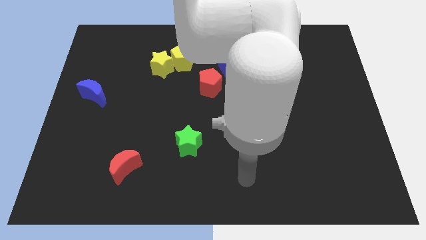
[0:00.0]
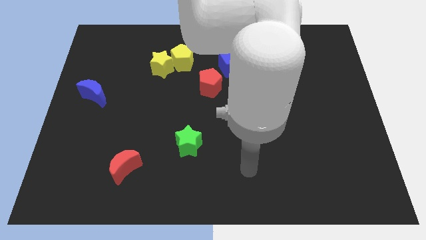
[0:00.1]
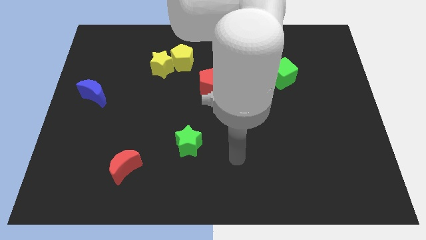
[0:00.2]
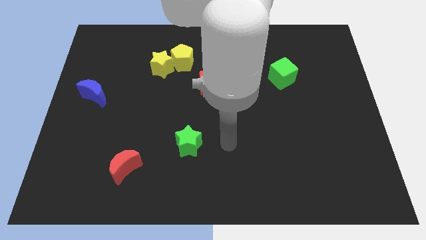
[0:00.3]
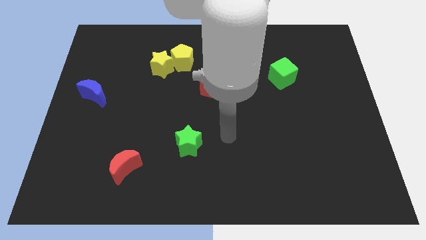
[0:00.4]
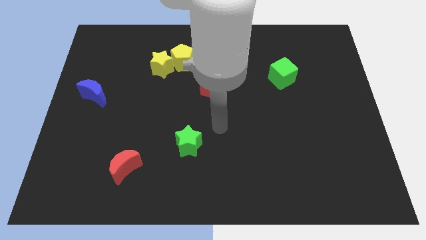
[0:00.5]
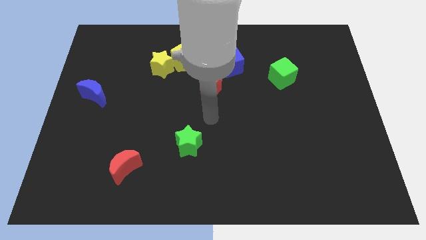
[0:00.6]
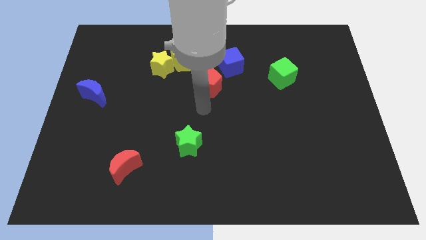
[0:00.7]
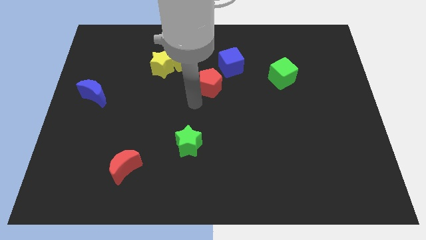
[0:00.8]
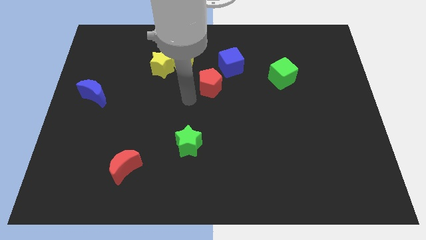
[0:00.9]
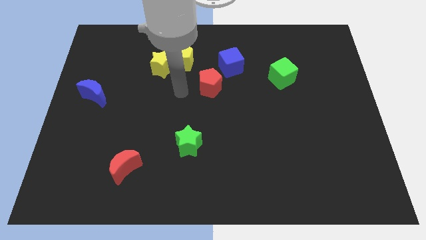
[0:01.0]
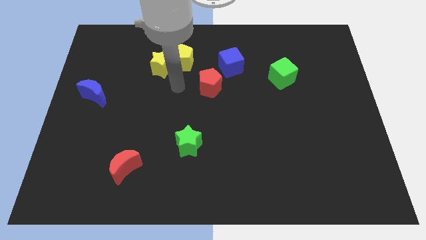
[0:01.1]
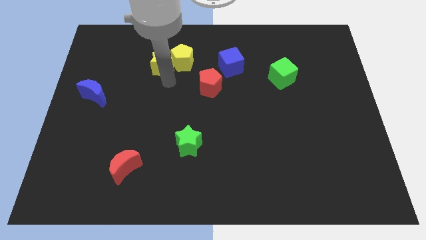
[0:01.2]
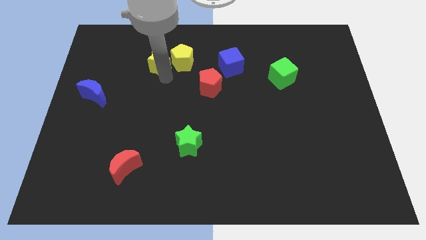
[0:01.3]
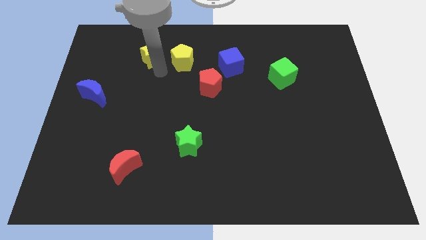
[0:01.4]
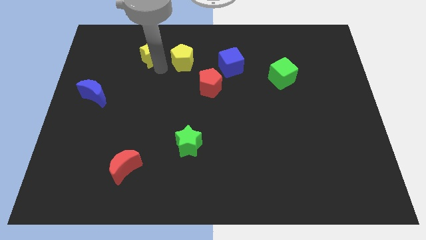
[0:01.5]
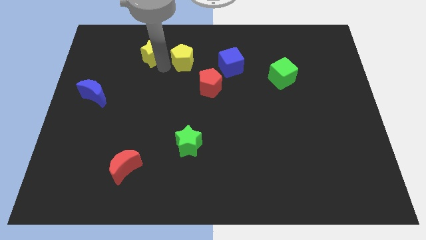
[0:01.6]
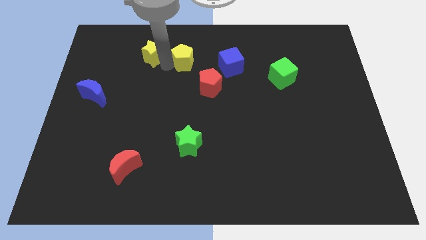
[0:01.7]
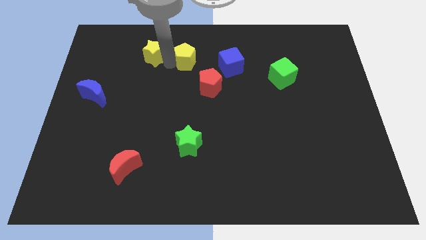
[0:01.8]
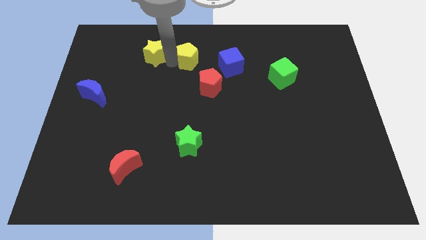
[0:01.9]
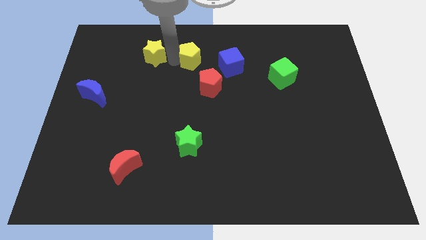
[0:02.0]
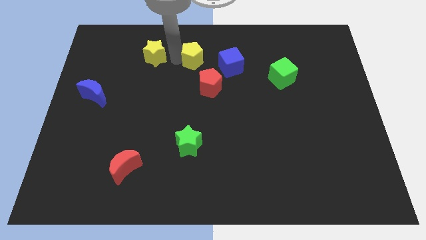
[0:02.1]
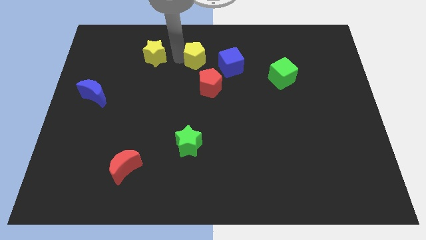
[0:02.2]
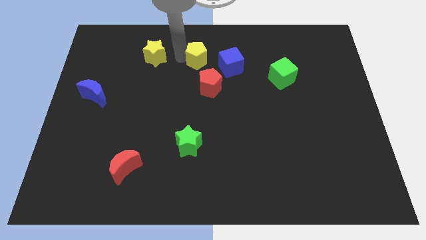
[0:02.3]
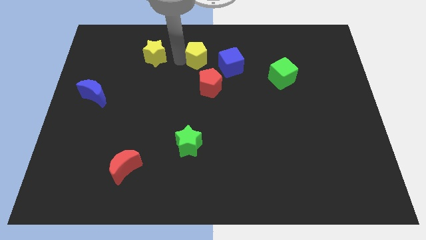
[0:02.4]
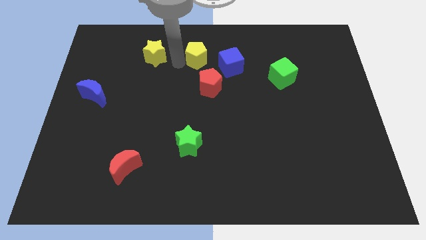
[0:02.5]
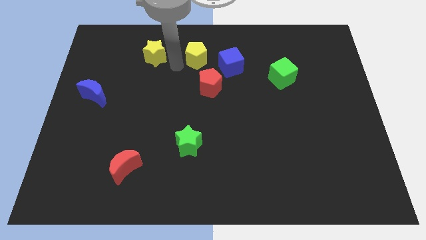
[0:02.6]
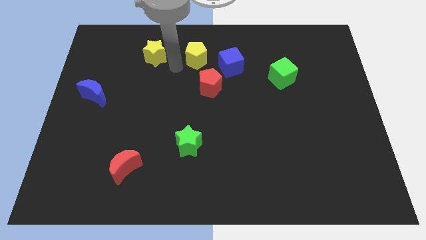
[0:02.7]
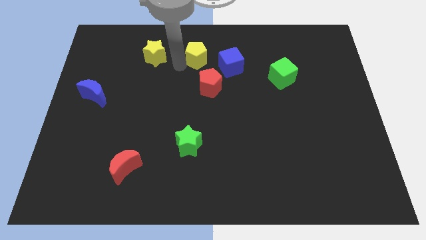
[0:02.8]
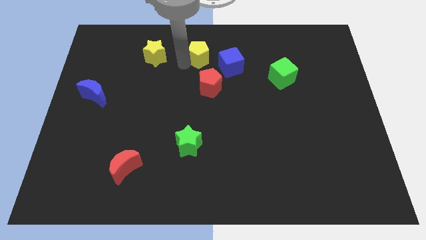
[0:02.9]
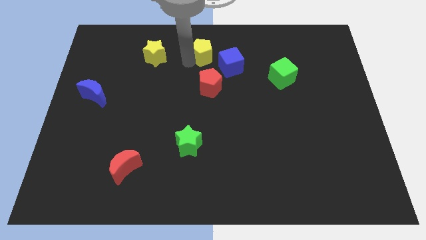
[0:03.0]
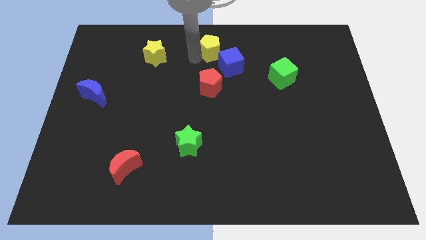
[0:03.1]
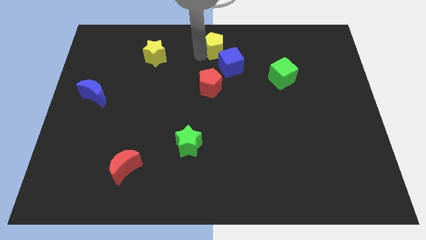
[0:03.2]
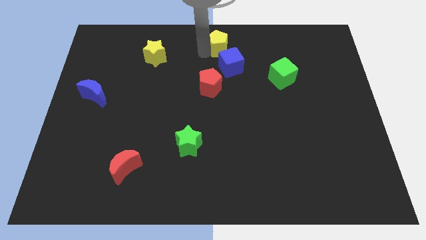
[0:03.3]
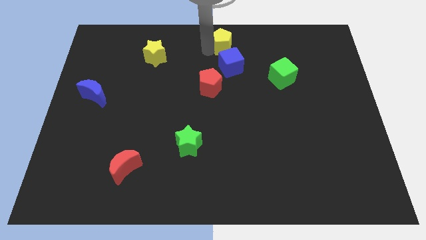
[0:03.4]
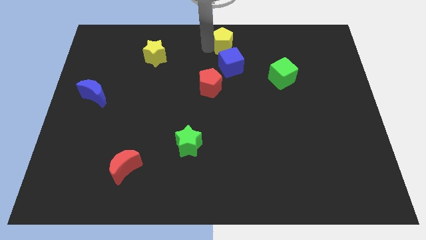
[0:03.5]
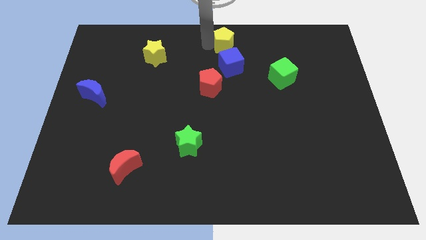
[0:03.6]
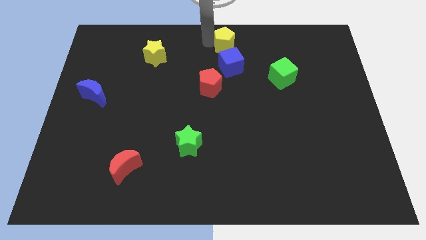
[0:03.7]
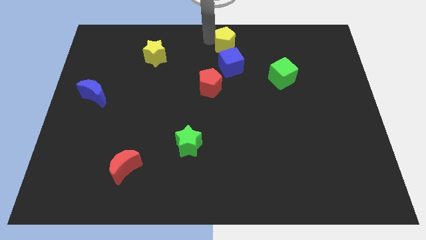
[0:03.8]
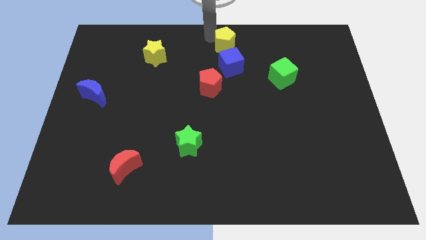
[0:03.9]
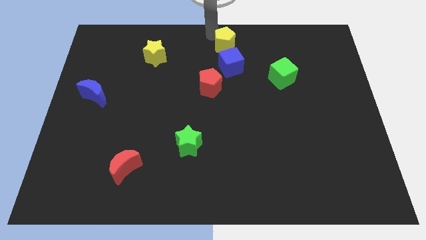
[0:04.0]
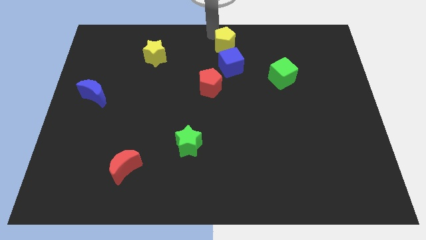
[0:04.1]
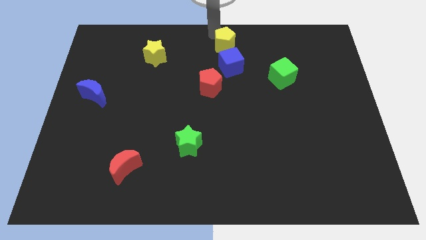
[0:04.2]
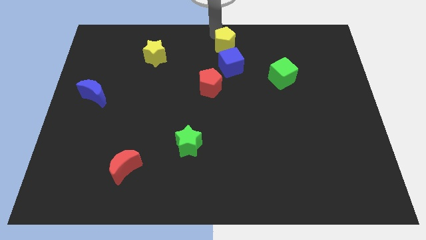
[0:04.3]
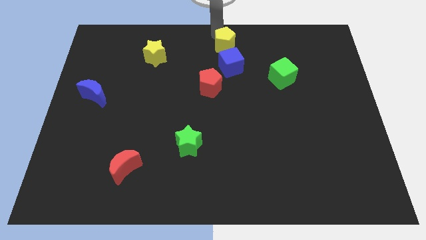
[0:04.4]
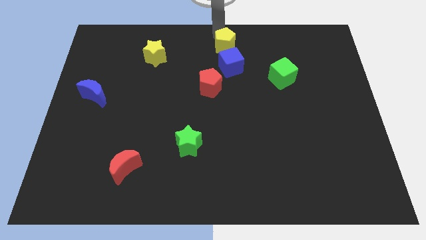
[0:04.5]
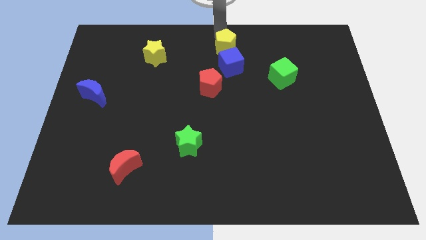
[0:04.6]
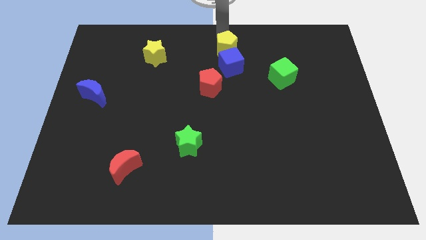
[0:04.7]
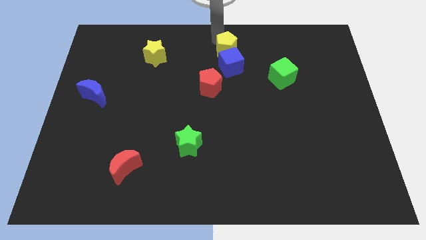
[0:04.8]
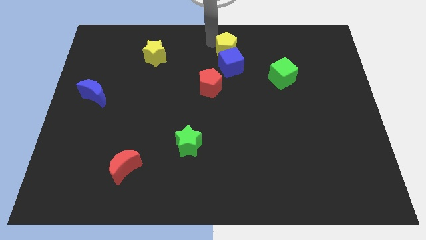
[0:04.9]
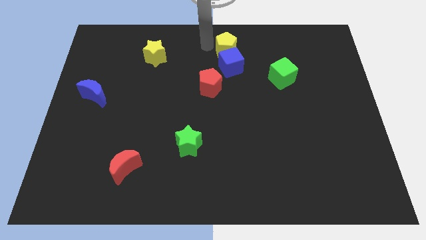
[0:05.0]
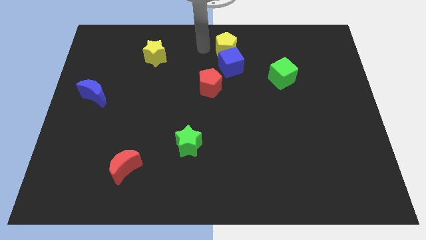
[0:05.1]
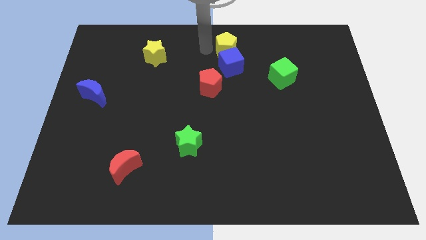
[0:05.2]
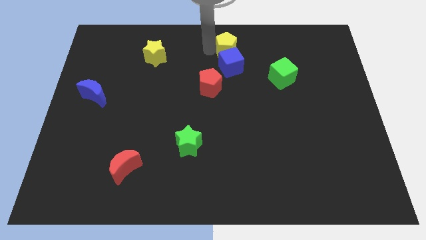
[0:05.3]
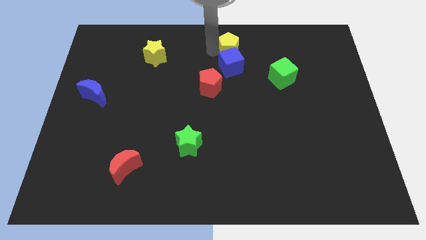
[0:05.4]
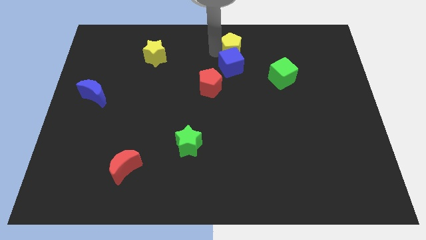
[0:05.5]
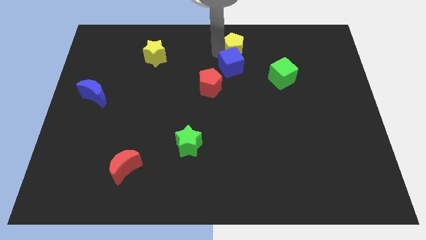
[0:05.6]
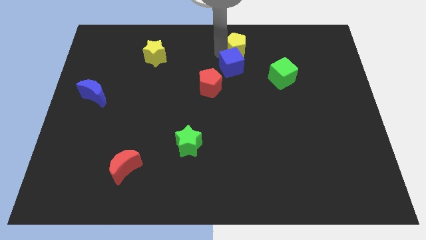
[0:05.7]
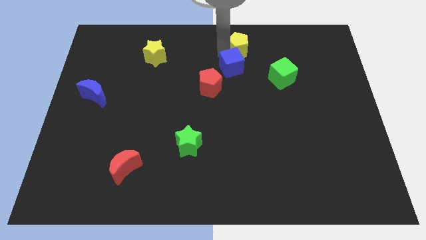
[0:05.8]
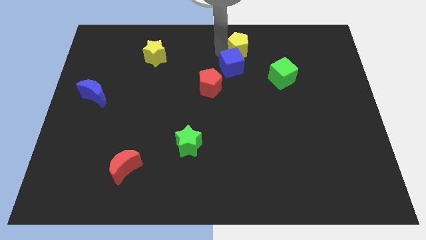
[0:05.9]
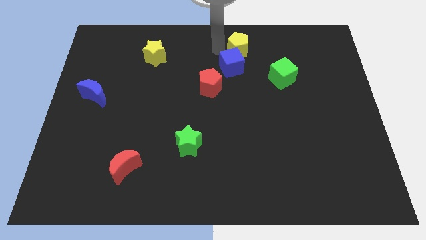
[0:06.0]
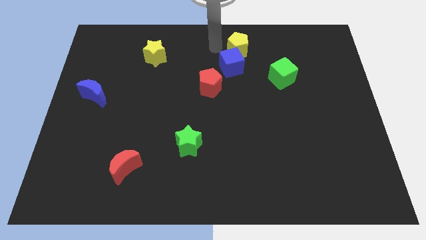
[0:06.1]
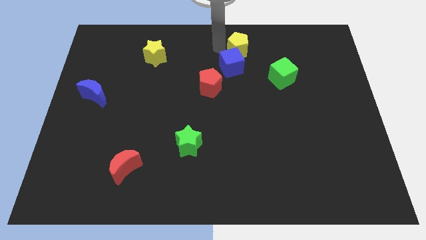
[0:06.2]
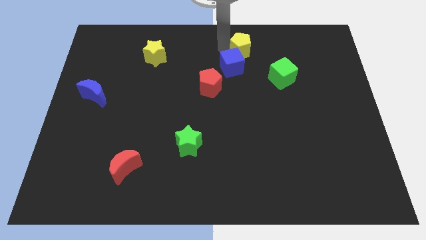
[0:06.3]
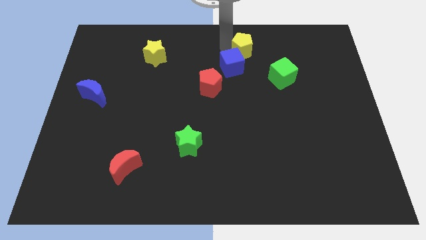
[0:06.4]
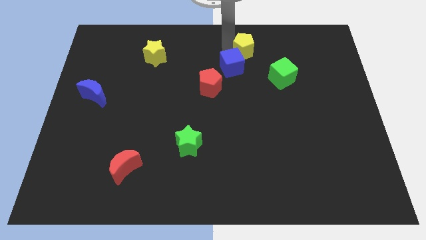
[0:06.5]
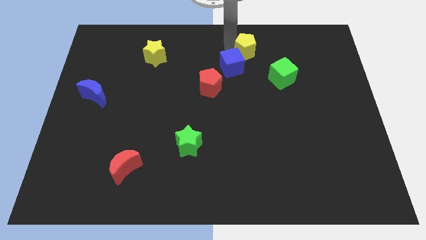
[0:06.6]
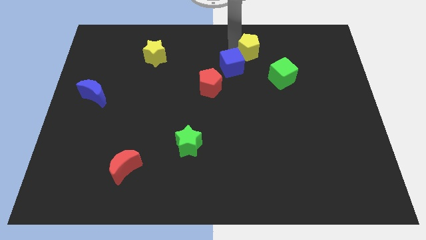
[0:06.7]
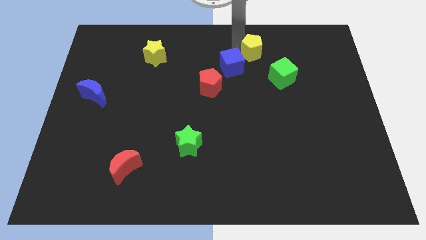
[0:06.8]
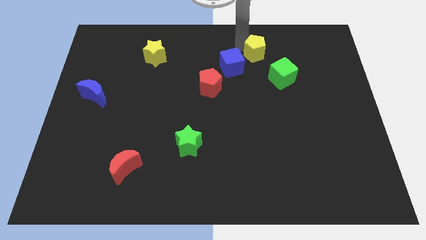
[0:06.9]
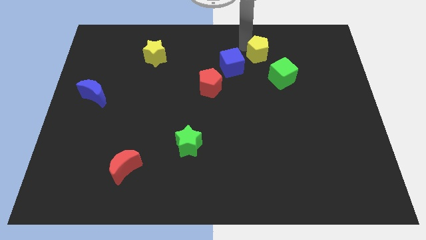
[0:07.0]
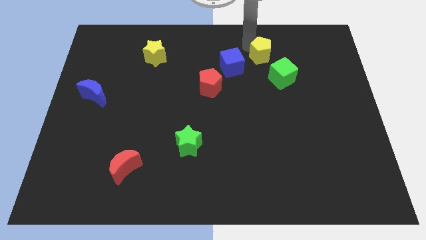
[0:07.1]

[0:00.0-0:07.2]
slide the yellow pentagon right

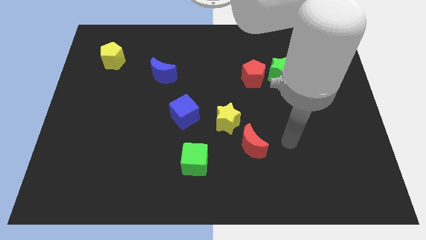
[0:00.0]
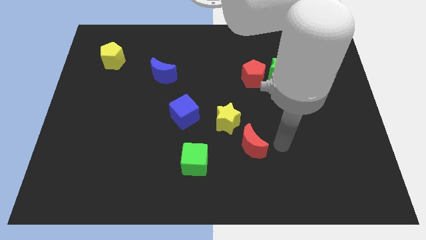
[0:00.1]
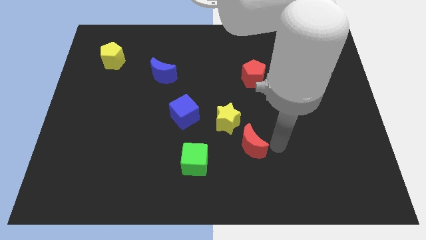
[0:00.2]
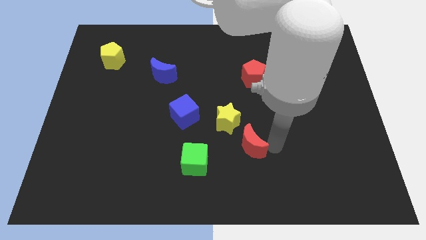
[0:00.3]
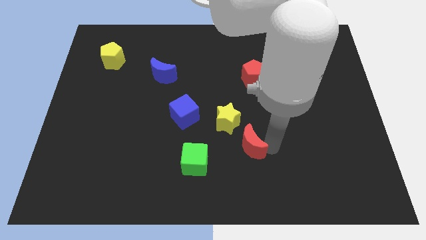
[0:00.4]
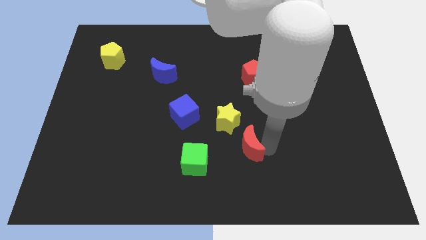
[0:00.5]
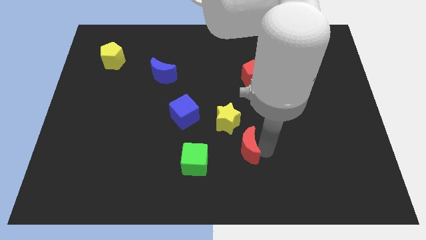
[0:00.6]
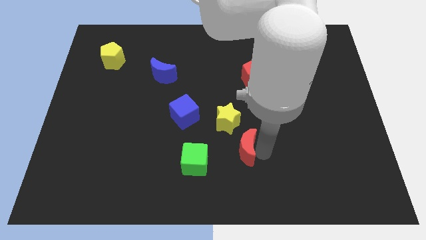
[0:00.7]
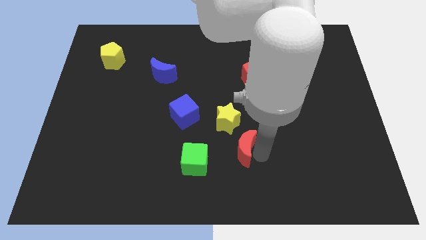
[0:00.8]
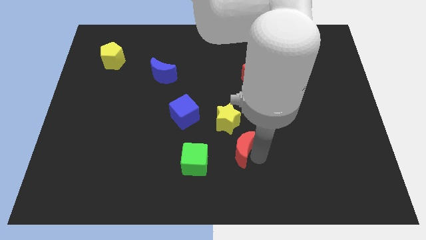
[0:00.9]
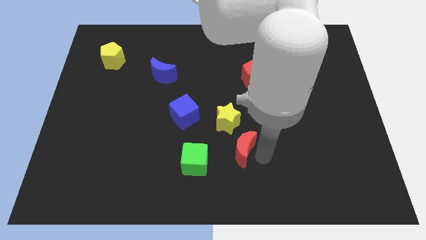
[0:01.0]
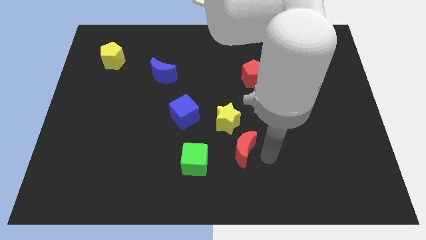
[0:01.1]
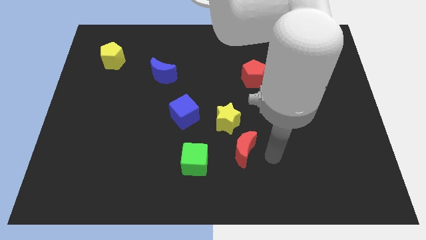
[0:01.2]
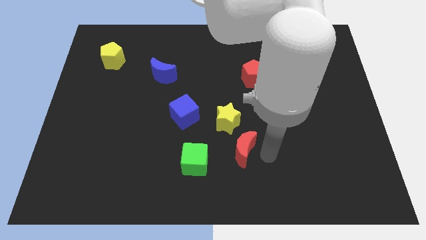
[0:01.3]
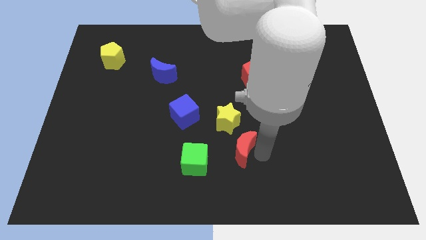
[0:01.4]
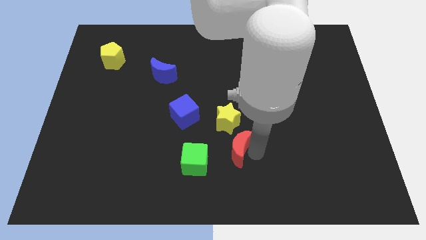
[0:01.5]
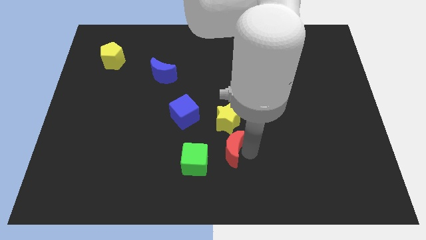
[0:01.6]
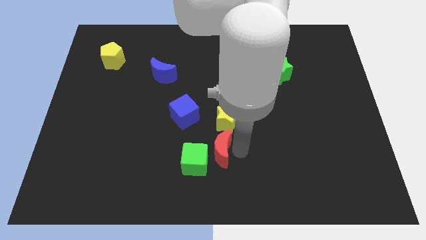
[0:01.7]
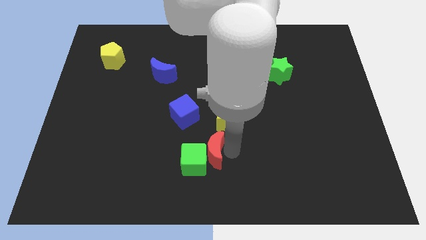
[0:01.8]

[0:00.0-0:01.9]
move the red moon somewhat left
